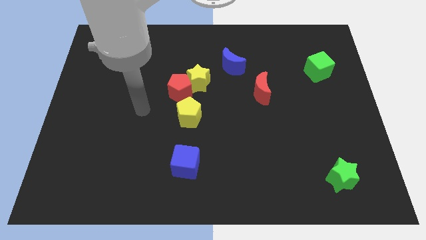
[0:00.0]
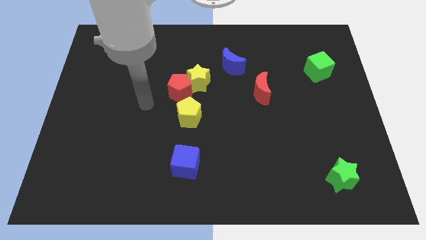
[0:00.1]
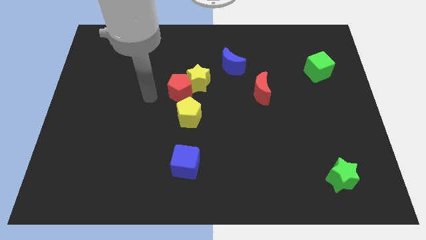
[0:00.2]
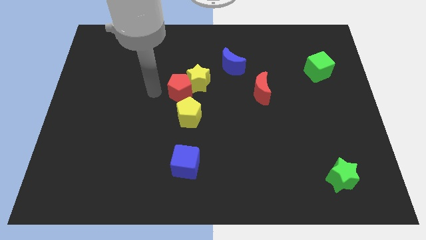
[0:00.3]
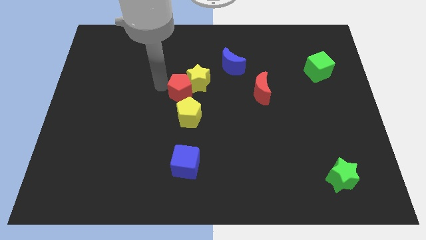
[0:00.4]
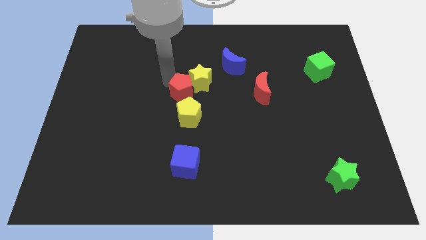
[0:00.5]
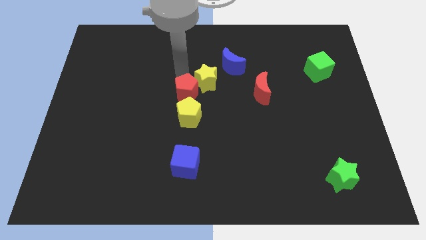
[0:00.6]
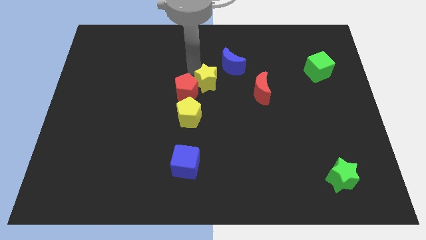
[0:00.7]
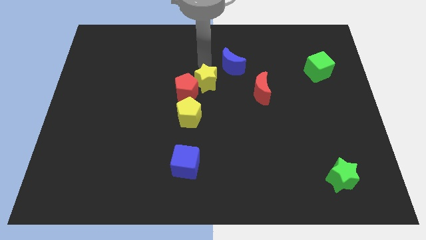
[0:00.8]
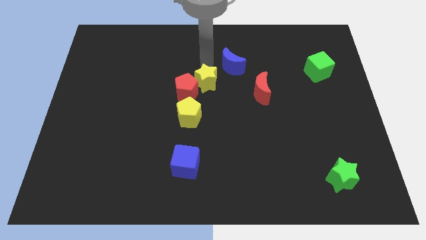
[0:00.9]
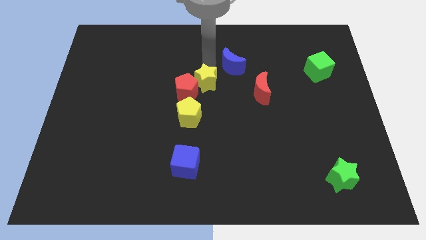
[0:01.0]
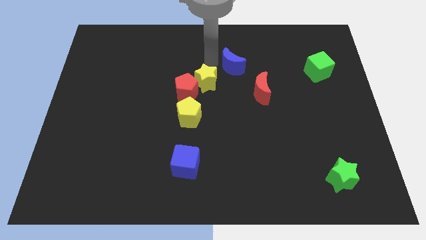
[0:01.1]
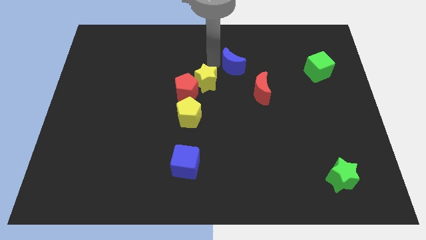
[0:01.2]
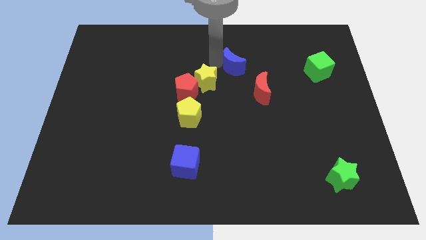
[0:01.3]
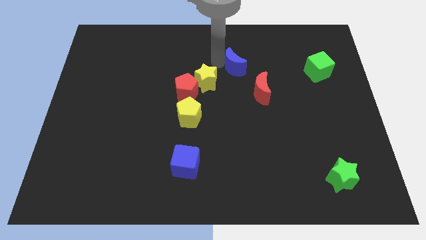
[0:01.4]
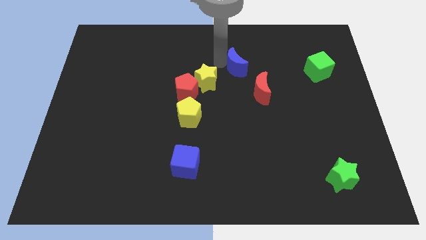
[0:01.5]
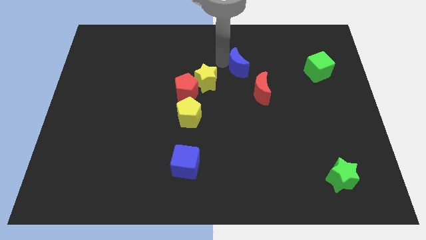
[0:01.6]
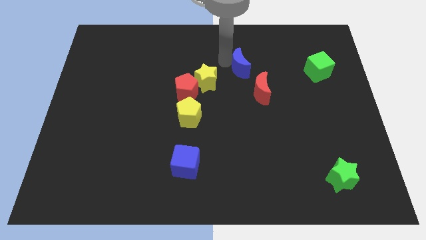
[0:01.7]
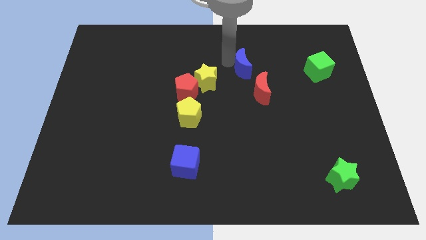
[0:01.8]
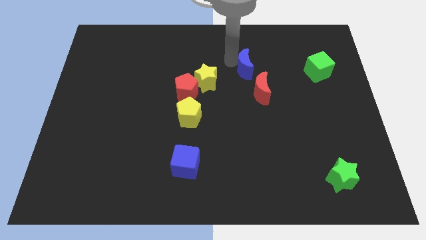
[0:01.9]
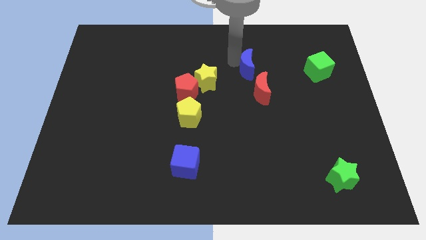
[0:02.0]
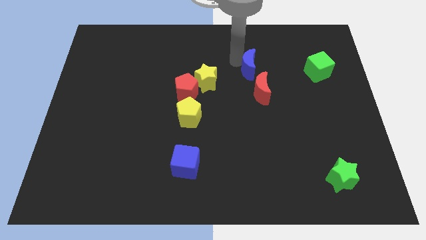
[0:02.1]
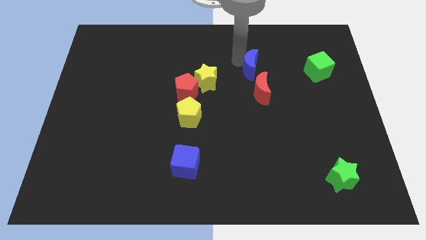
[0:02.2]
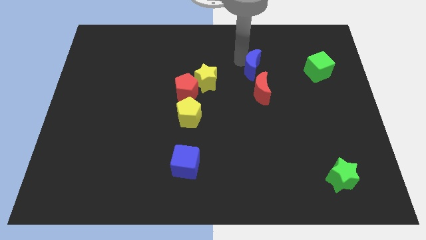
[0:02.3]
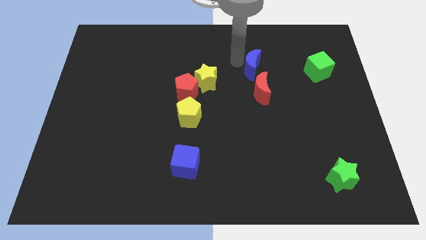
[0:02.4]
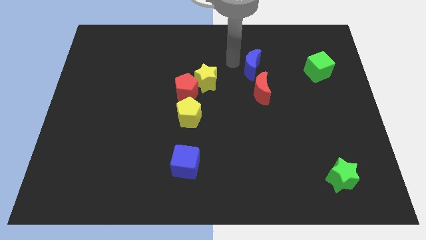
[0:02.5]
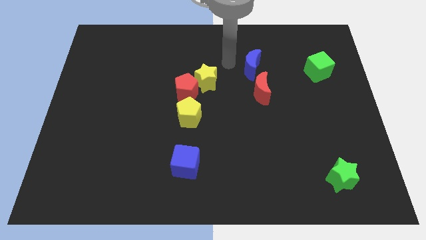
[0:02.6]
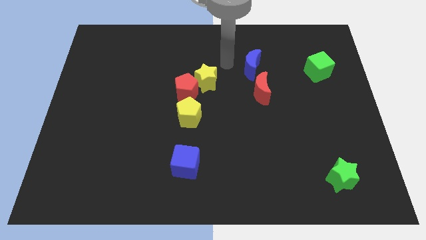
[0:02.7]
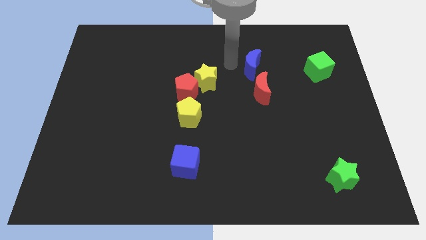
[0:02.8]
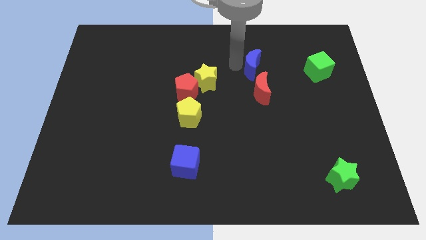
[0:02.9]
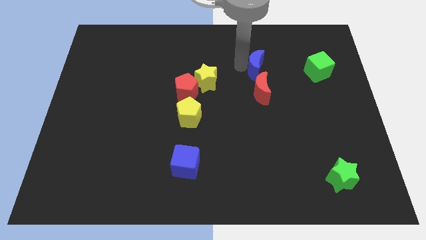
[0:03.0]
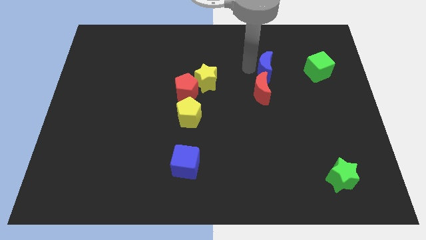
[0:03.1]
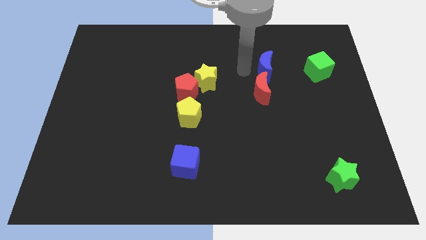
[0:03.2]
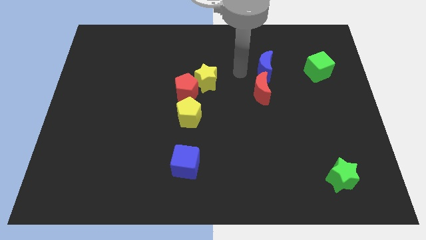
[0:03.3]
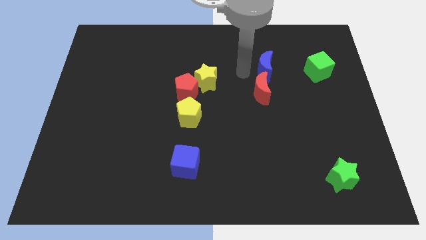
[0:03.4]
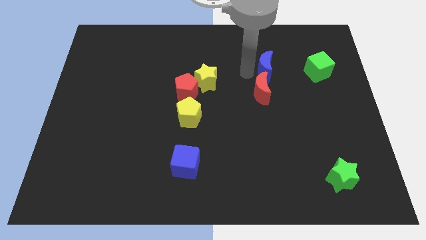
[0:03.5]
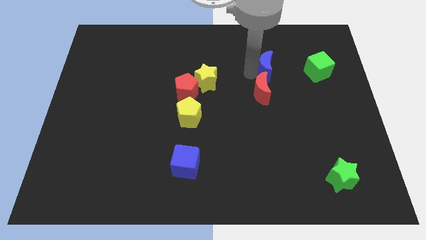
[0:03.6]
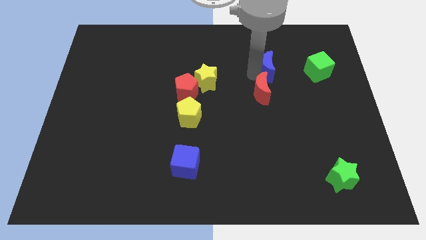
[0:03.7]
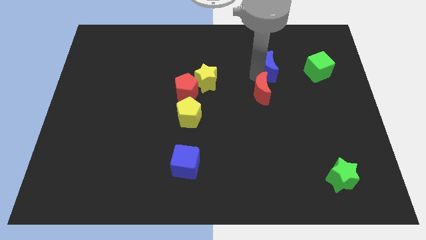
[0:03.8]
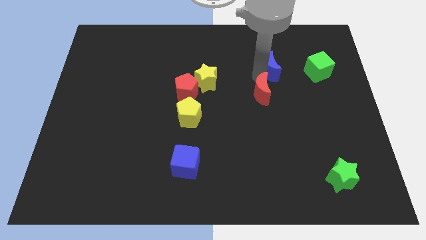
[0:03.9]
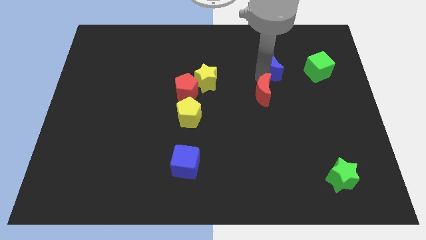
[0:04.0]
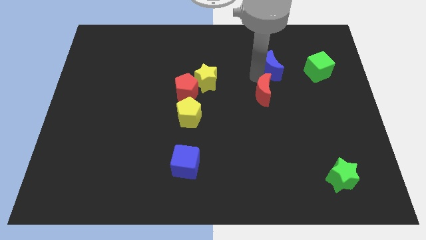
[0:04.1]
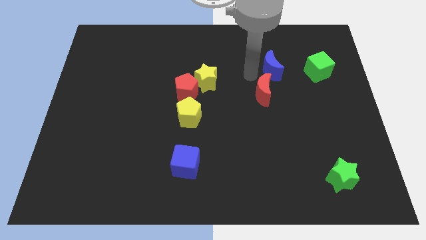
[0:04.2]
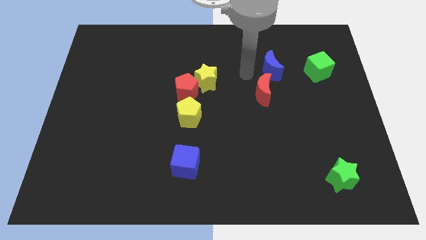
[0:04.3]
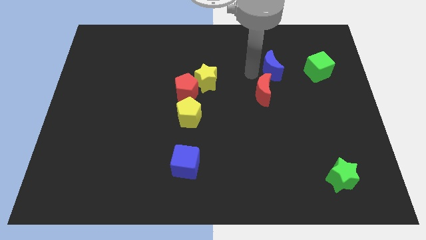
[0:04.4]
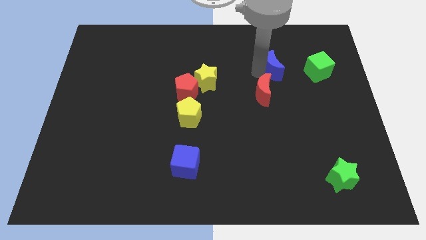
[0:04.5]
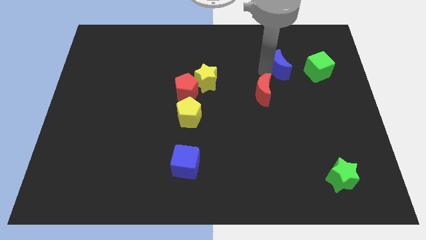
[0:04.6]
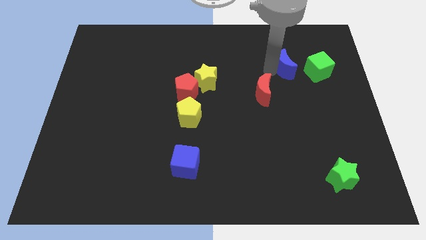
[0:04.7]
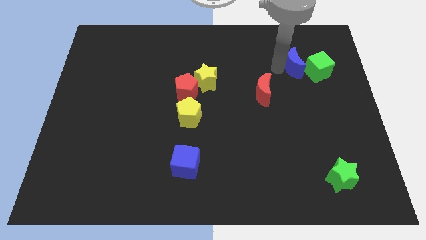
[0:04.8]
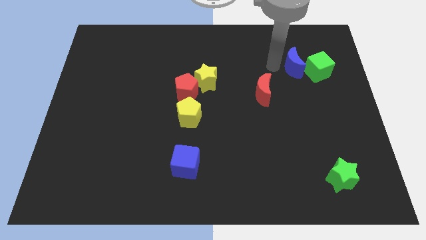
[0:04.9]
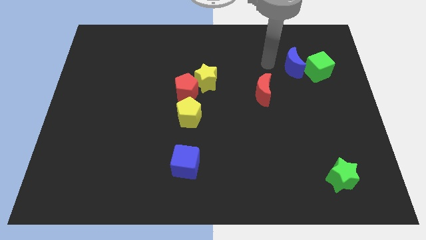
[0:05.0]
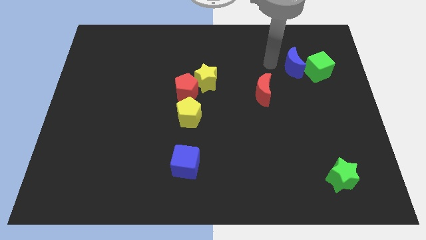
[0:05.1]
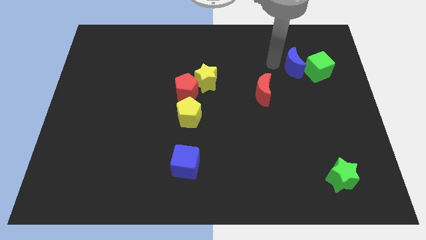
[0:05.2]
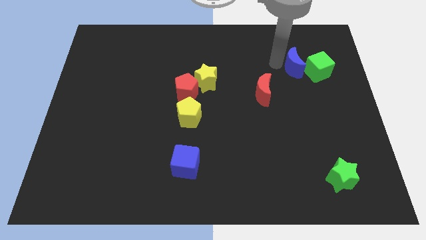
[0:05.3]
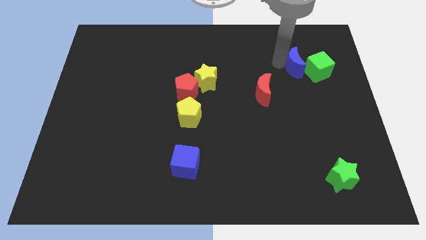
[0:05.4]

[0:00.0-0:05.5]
push the blue moon towards the green cube

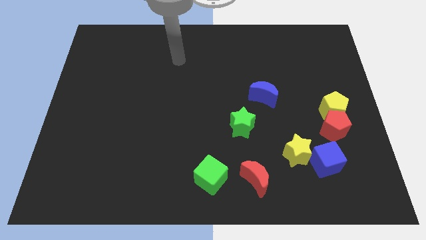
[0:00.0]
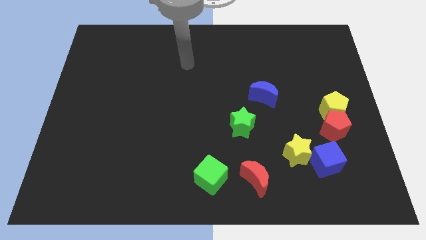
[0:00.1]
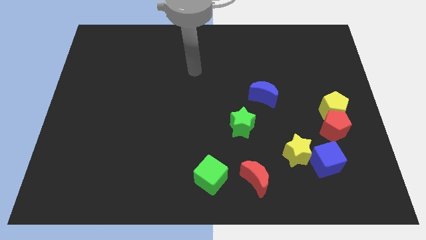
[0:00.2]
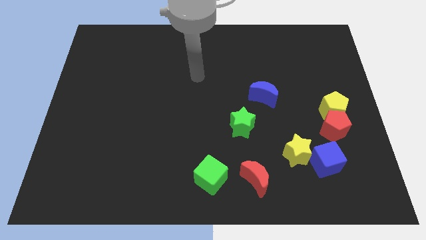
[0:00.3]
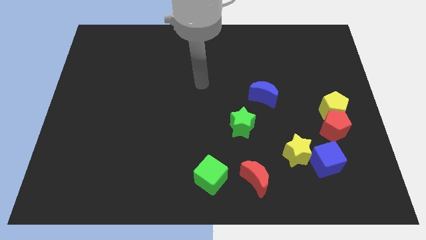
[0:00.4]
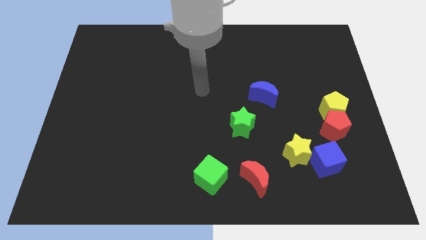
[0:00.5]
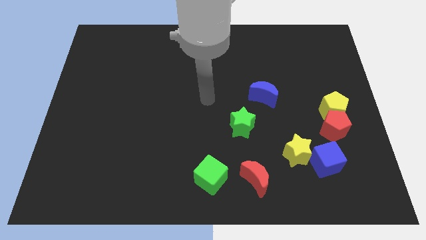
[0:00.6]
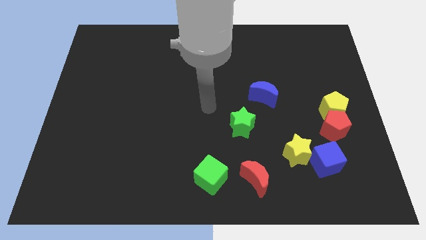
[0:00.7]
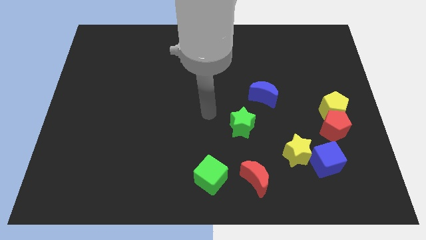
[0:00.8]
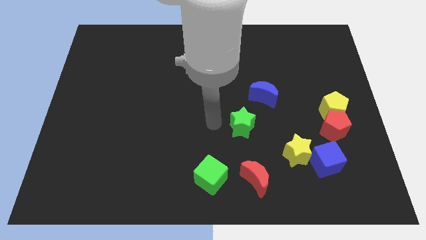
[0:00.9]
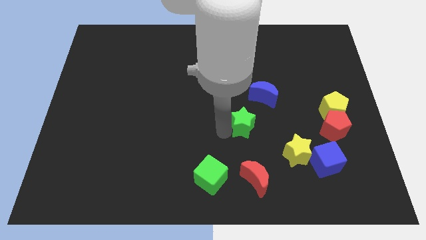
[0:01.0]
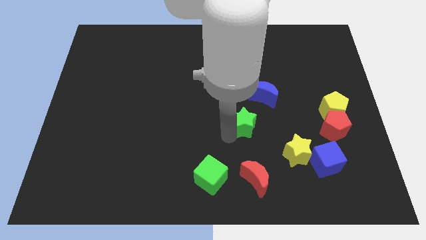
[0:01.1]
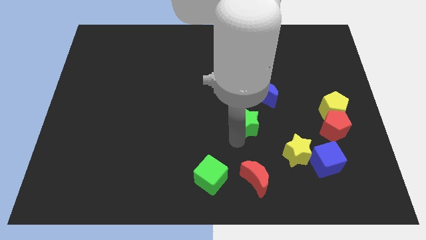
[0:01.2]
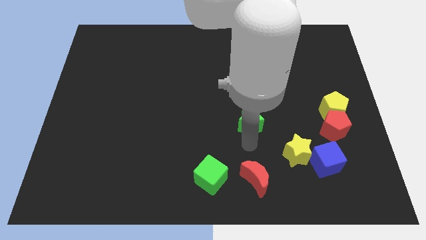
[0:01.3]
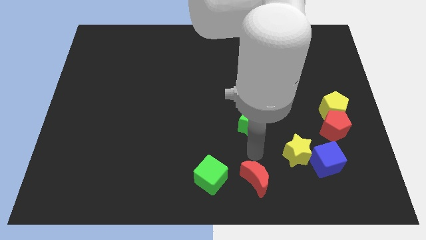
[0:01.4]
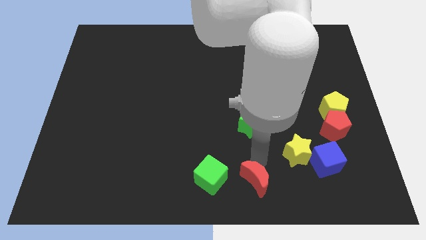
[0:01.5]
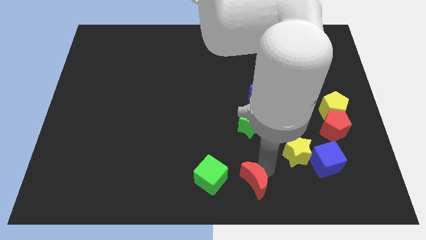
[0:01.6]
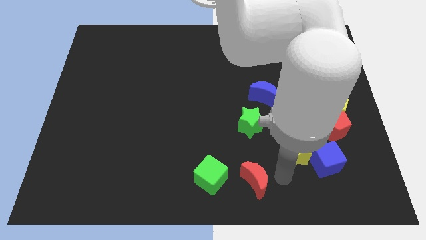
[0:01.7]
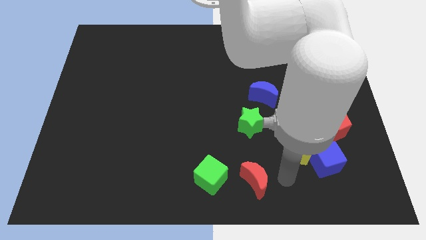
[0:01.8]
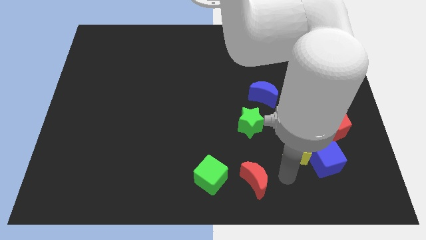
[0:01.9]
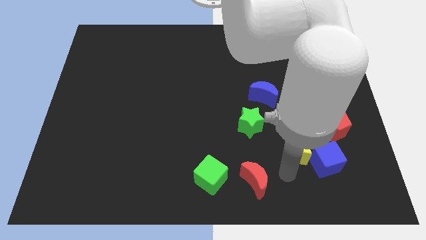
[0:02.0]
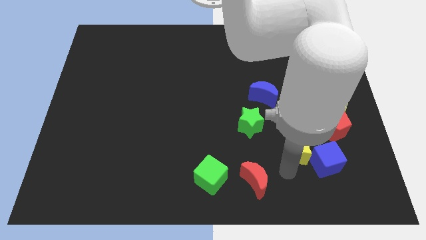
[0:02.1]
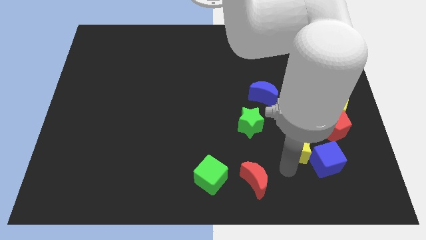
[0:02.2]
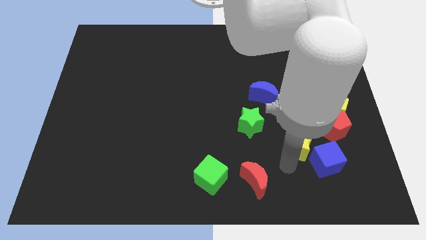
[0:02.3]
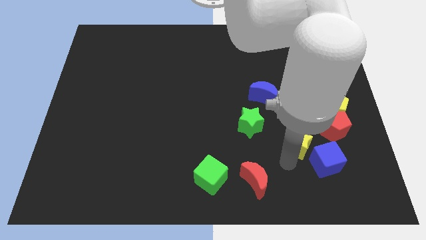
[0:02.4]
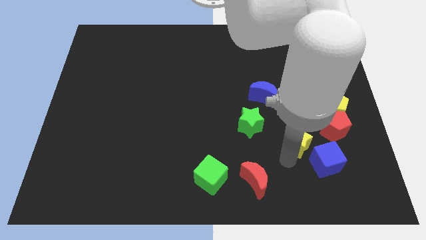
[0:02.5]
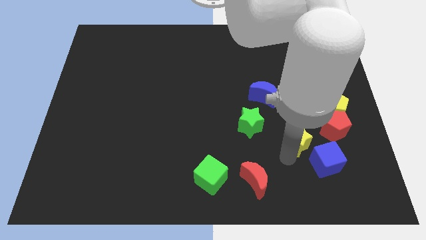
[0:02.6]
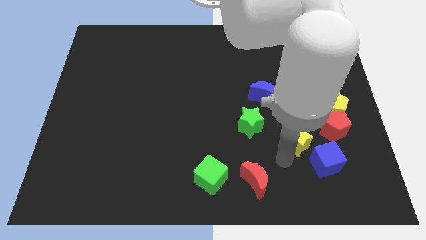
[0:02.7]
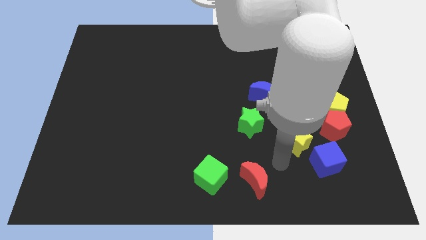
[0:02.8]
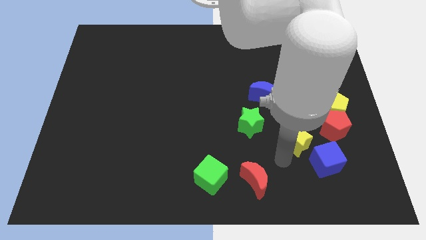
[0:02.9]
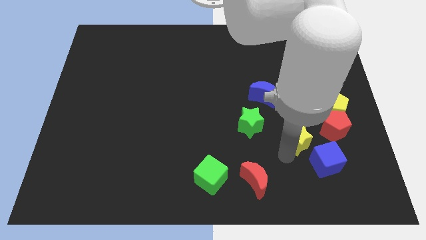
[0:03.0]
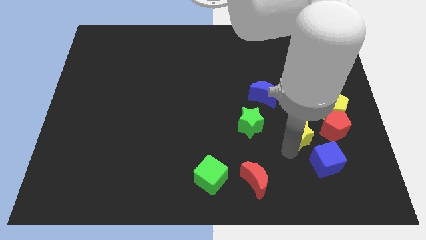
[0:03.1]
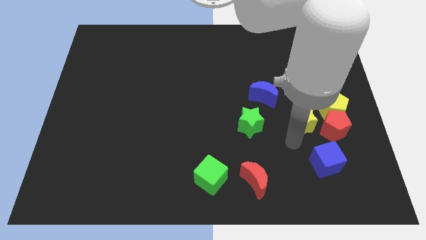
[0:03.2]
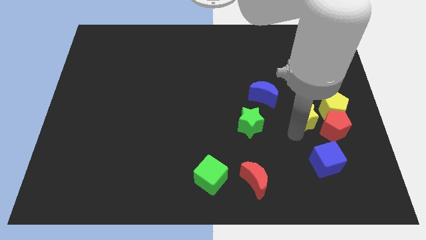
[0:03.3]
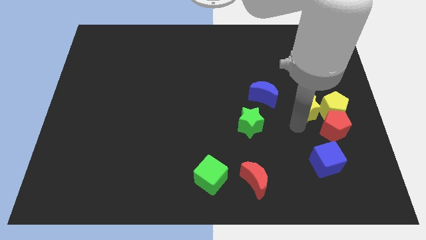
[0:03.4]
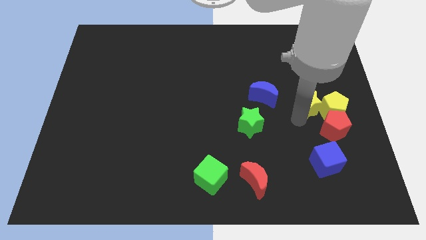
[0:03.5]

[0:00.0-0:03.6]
put the yellow star close to the yellow pentagon
